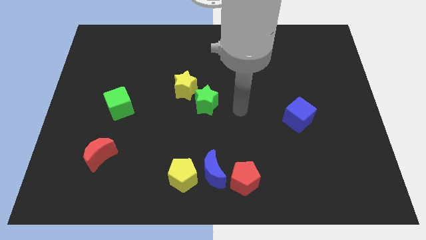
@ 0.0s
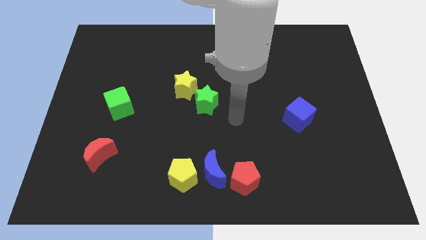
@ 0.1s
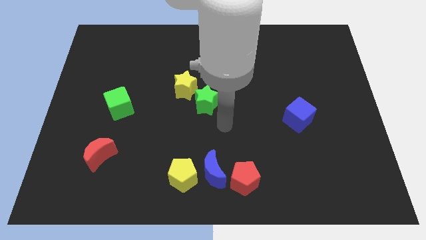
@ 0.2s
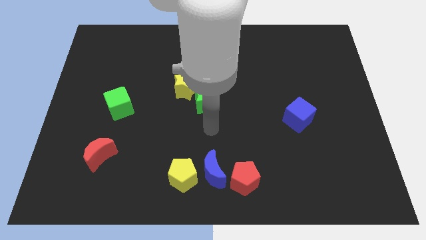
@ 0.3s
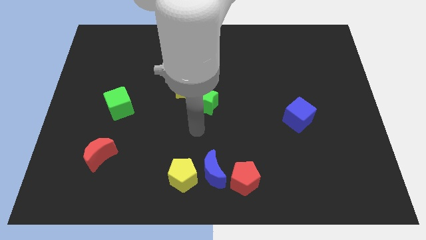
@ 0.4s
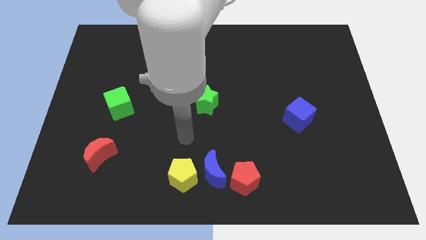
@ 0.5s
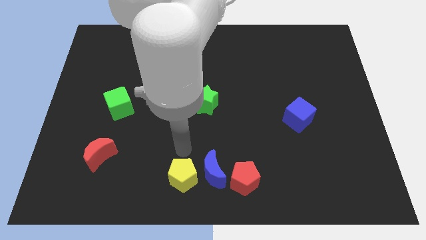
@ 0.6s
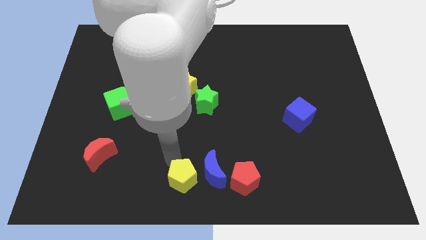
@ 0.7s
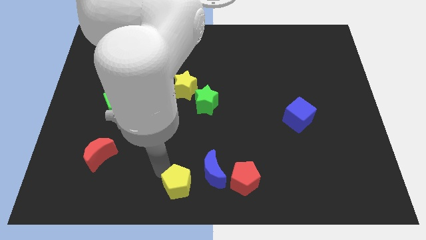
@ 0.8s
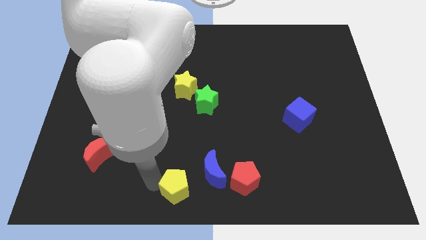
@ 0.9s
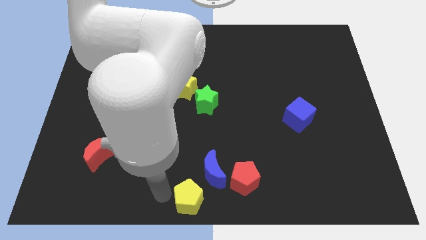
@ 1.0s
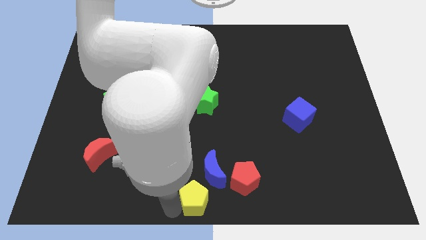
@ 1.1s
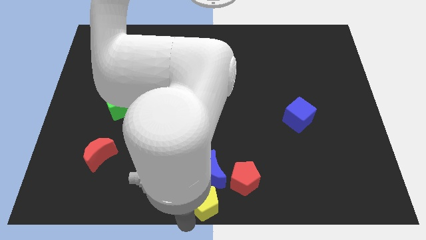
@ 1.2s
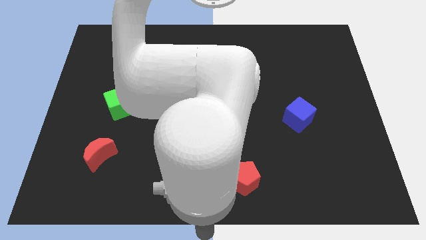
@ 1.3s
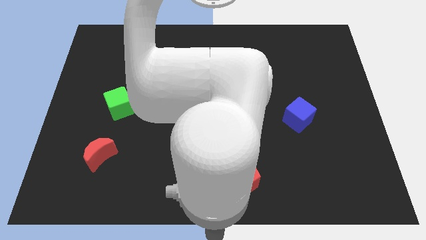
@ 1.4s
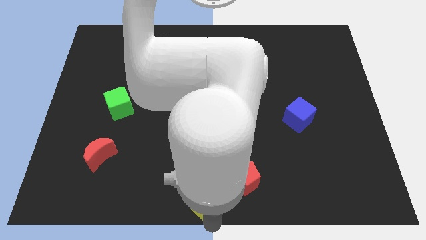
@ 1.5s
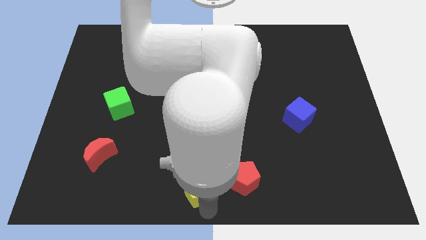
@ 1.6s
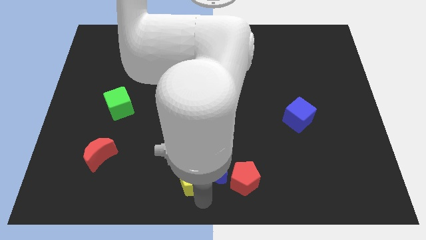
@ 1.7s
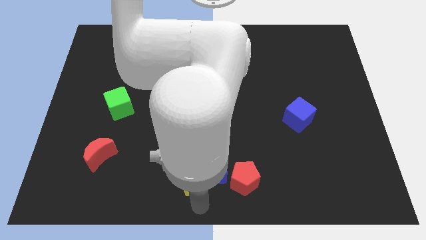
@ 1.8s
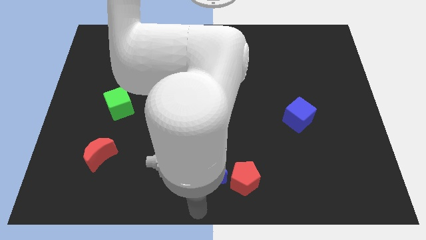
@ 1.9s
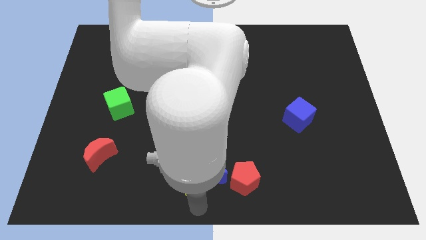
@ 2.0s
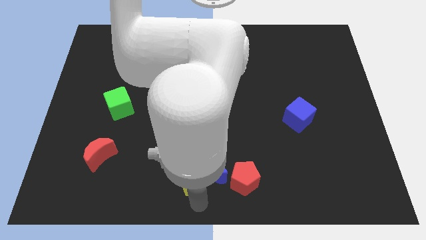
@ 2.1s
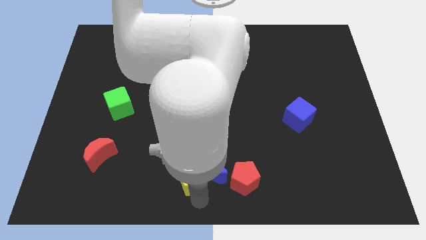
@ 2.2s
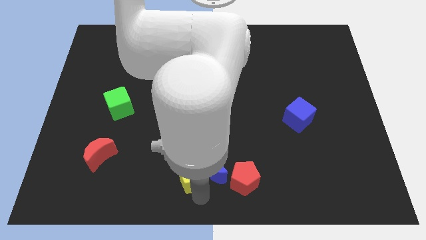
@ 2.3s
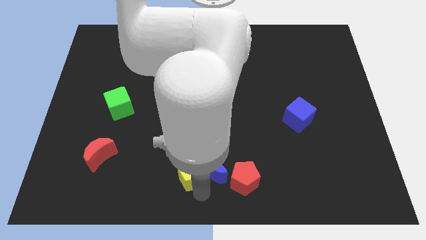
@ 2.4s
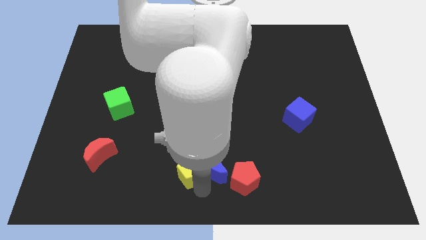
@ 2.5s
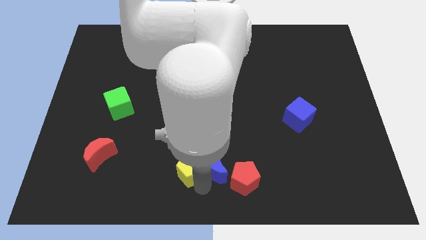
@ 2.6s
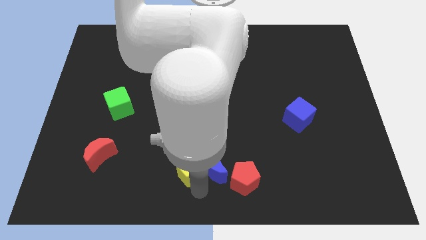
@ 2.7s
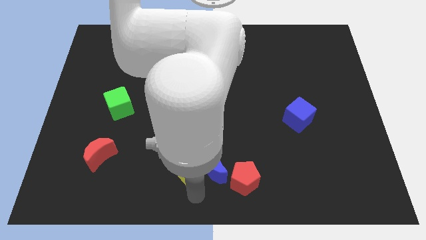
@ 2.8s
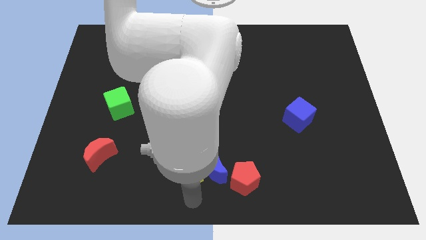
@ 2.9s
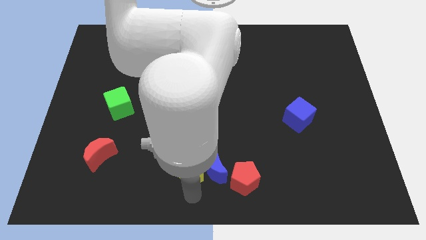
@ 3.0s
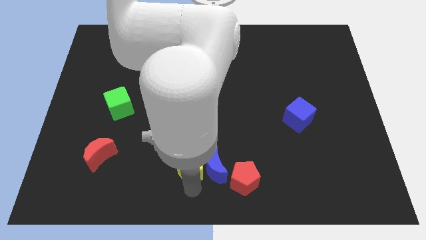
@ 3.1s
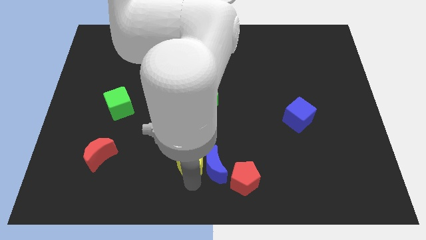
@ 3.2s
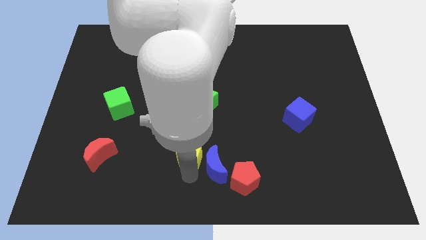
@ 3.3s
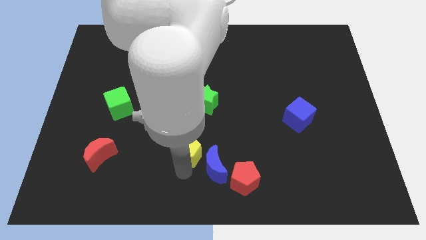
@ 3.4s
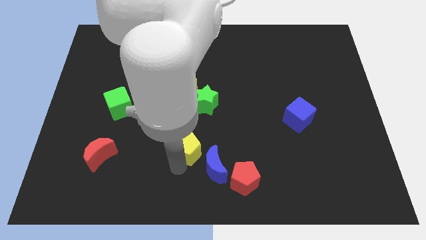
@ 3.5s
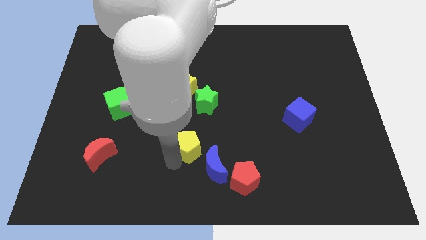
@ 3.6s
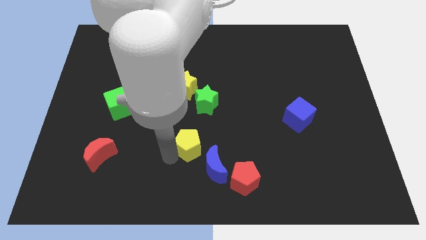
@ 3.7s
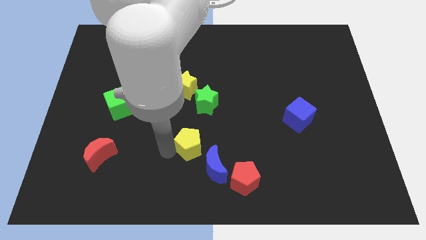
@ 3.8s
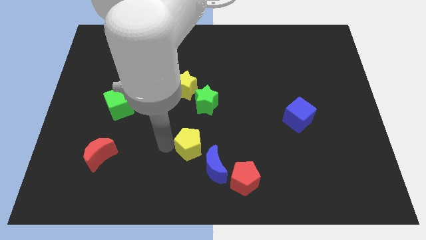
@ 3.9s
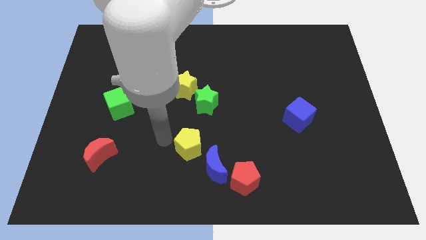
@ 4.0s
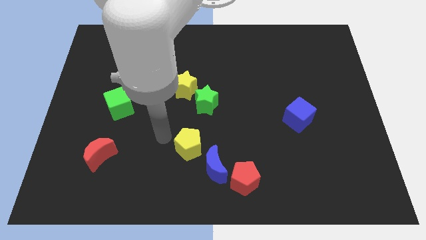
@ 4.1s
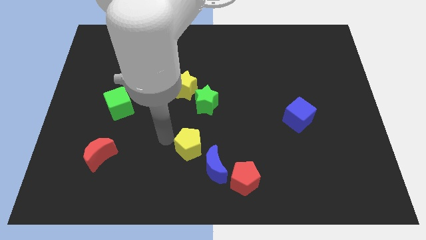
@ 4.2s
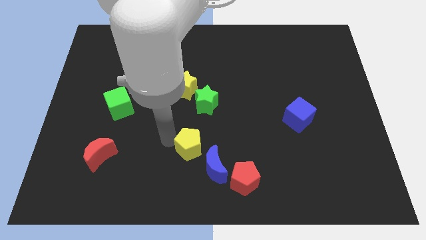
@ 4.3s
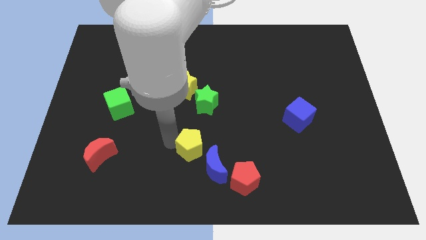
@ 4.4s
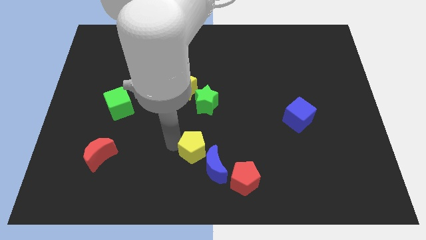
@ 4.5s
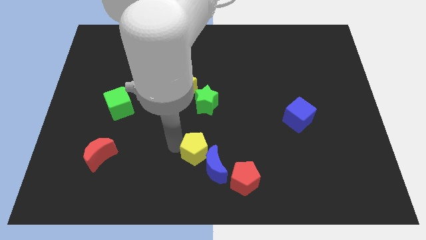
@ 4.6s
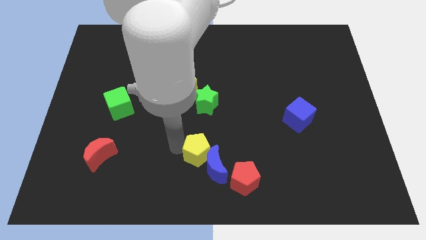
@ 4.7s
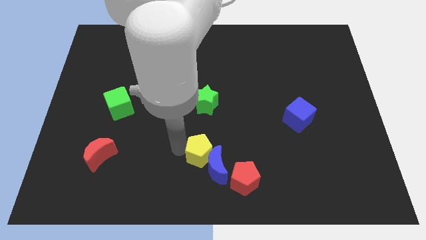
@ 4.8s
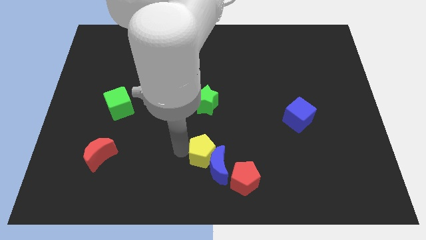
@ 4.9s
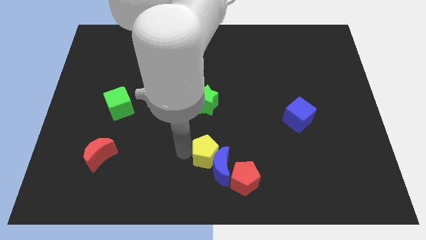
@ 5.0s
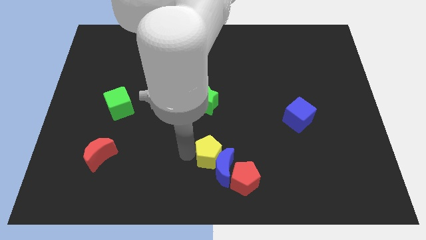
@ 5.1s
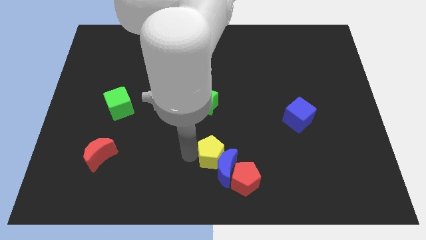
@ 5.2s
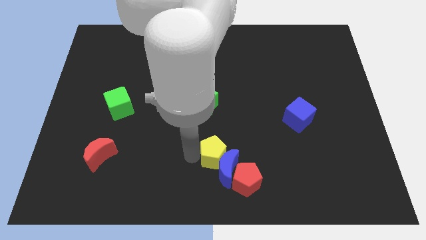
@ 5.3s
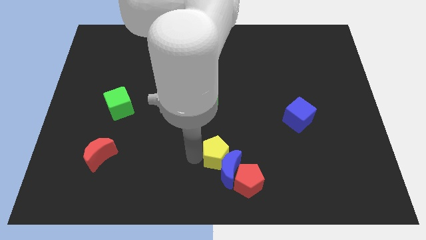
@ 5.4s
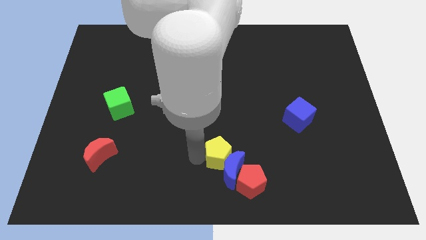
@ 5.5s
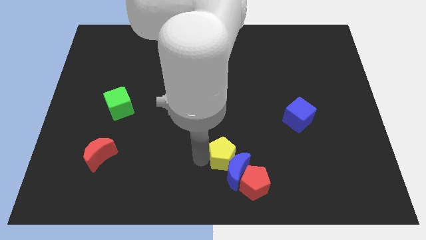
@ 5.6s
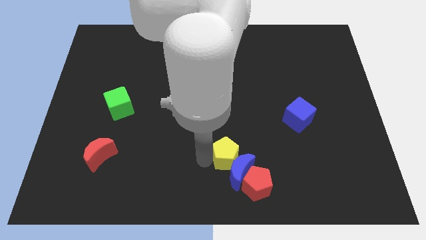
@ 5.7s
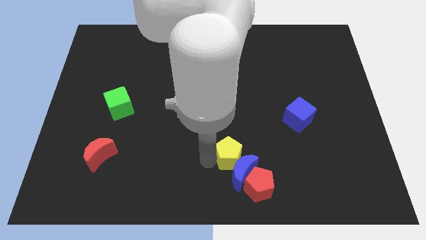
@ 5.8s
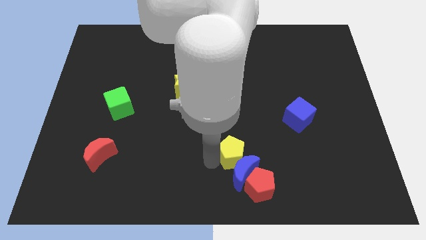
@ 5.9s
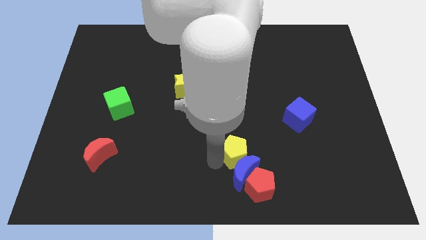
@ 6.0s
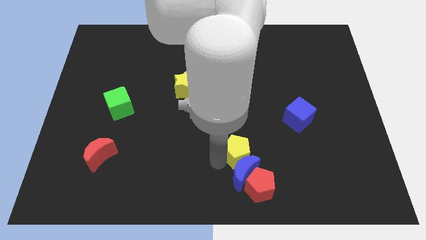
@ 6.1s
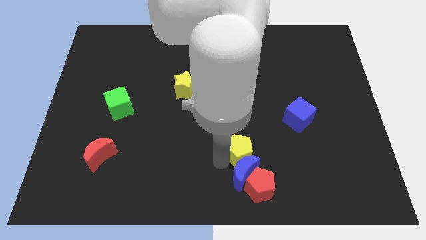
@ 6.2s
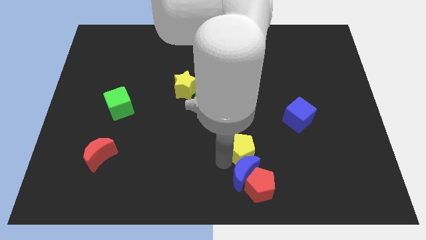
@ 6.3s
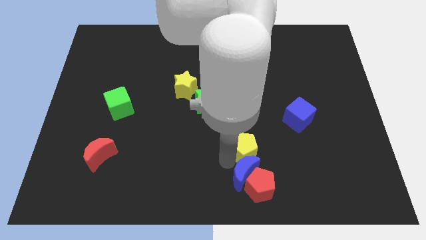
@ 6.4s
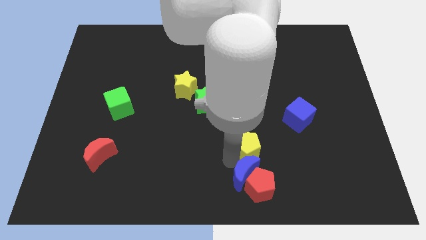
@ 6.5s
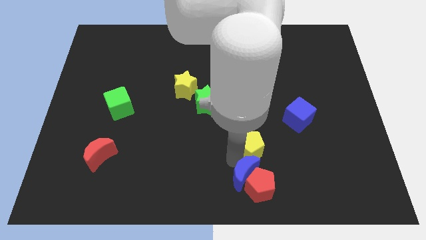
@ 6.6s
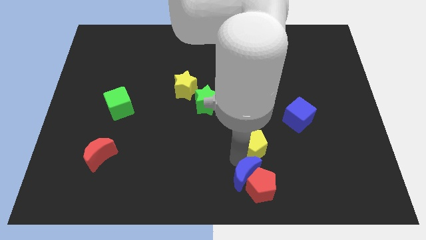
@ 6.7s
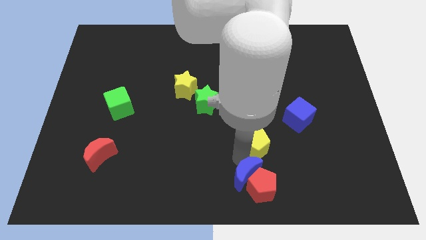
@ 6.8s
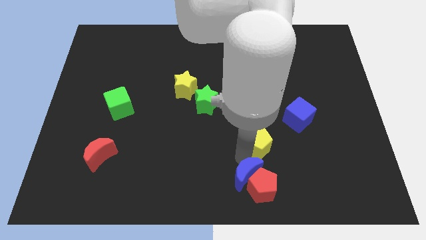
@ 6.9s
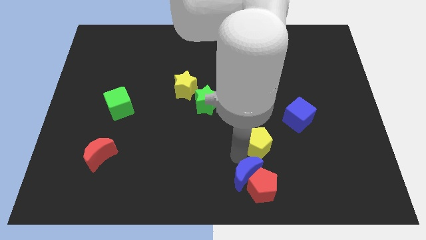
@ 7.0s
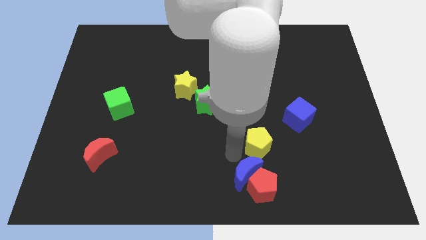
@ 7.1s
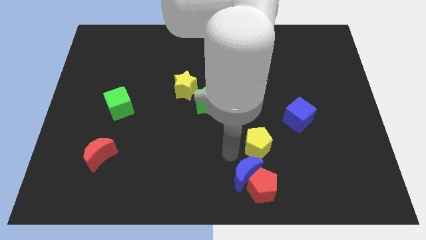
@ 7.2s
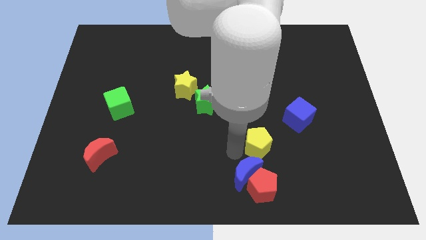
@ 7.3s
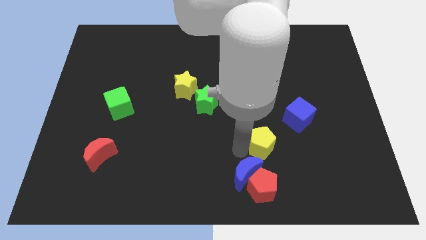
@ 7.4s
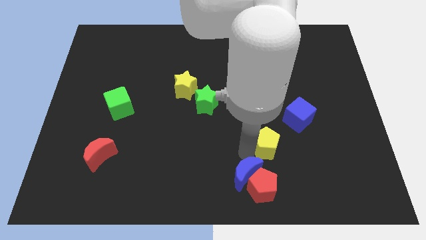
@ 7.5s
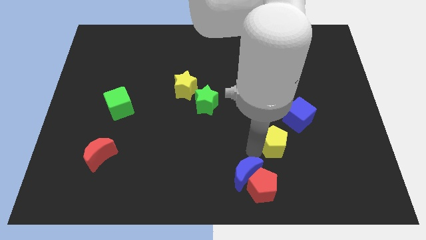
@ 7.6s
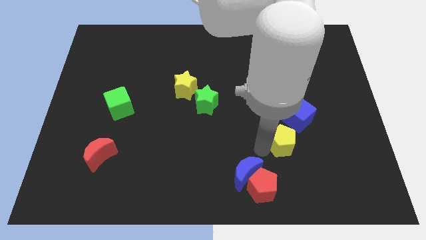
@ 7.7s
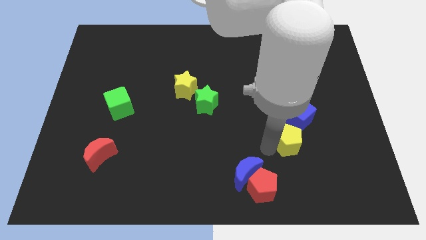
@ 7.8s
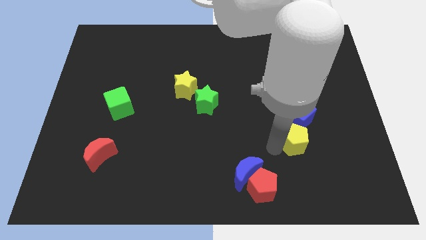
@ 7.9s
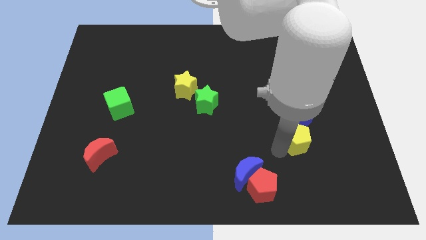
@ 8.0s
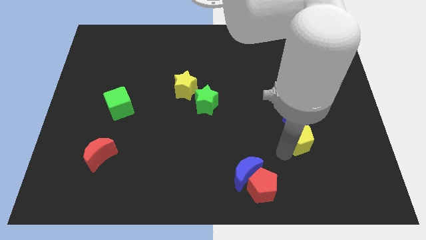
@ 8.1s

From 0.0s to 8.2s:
push the yellow pentagon to the blue cube
